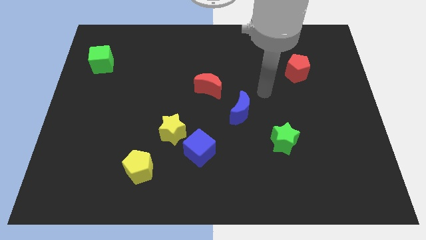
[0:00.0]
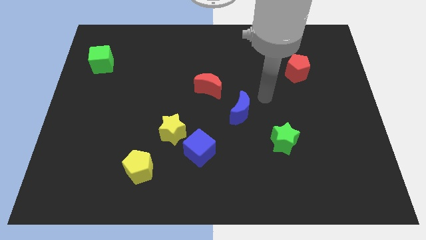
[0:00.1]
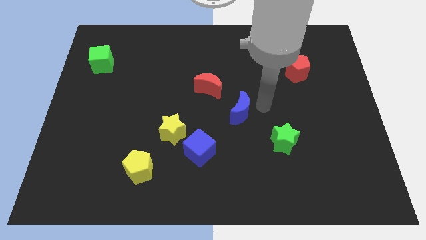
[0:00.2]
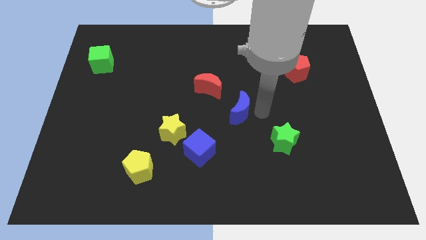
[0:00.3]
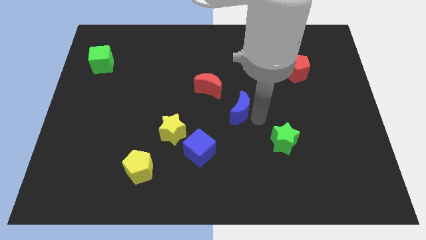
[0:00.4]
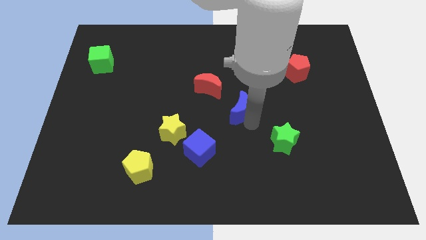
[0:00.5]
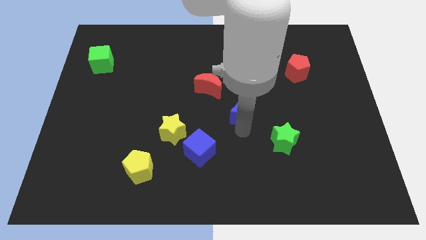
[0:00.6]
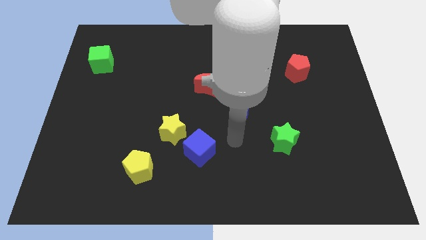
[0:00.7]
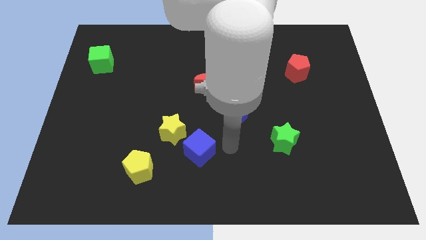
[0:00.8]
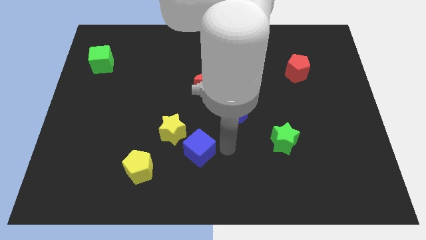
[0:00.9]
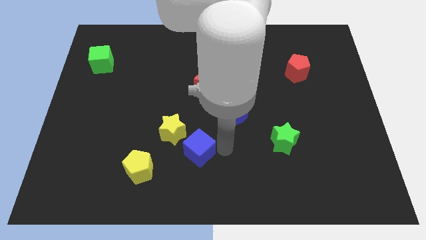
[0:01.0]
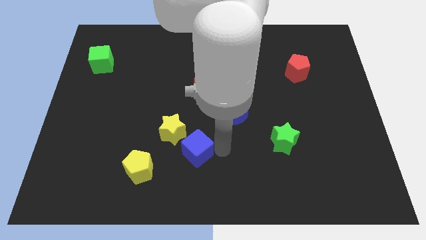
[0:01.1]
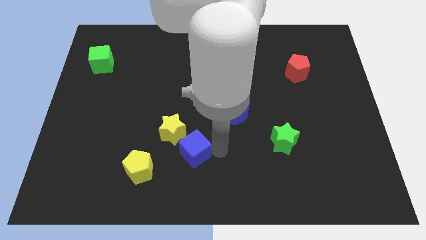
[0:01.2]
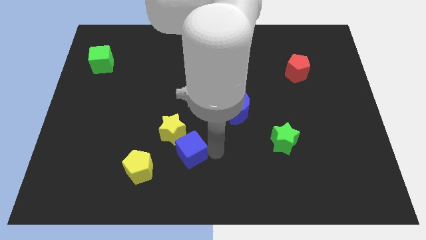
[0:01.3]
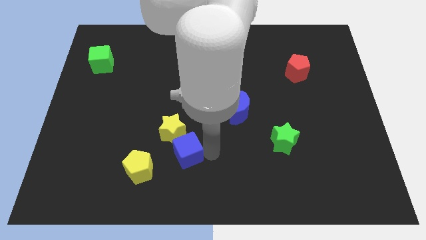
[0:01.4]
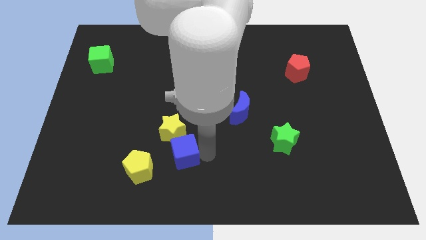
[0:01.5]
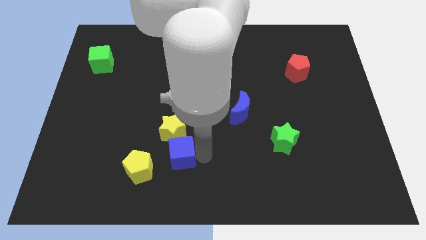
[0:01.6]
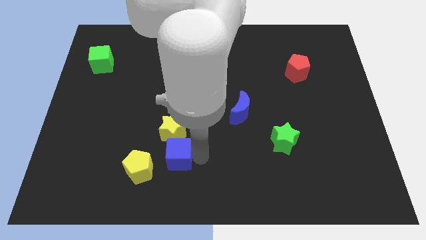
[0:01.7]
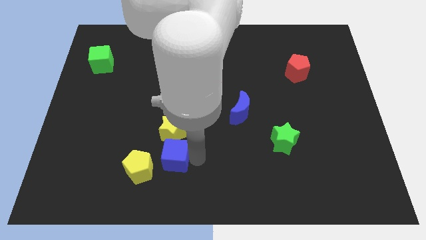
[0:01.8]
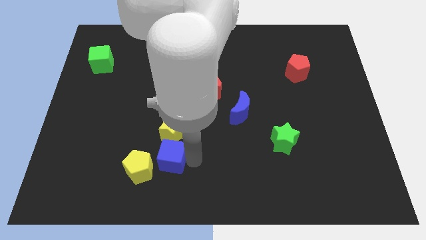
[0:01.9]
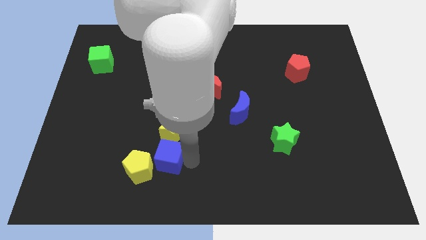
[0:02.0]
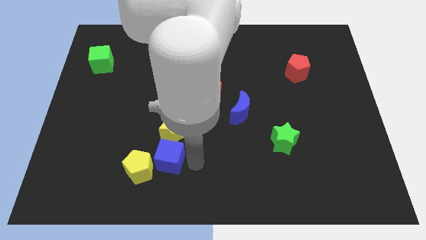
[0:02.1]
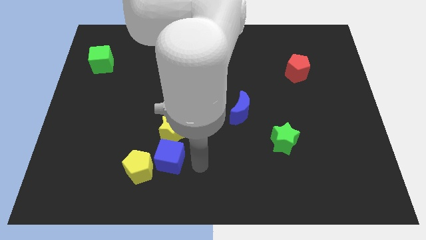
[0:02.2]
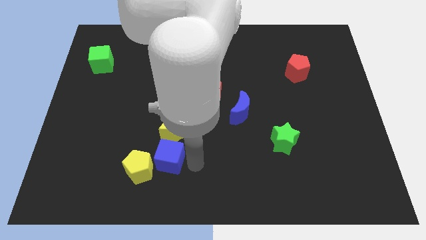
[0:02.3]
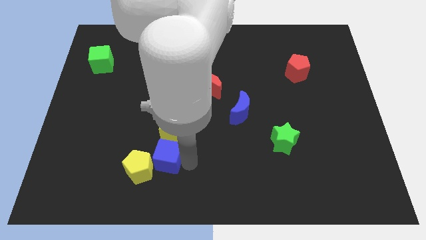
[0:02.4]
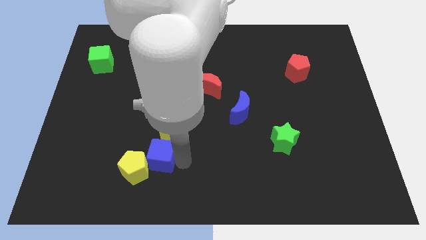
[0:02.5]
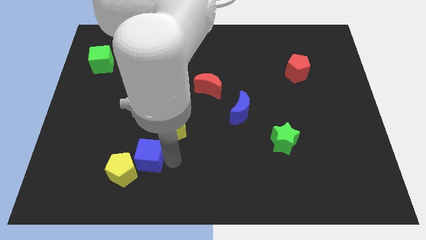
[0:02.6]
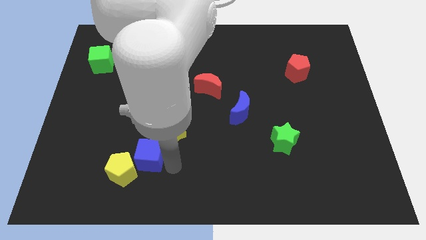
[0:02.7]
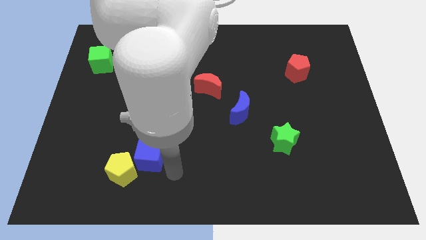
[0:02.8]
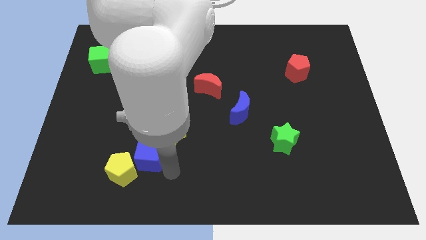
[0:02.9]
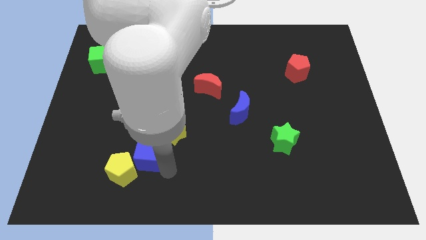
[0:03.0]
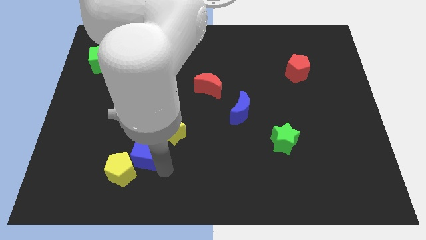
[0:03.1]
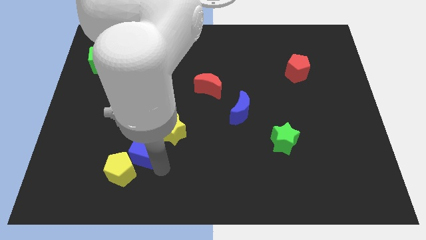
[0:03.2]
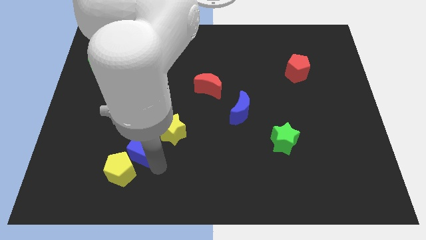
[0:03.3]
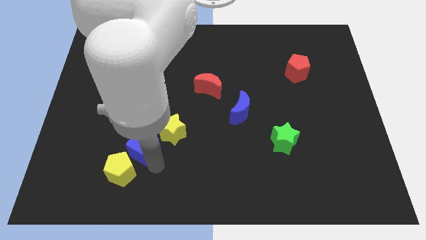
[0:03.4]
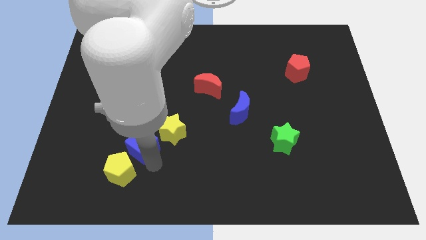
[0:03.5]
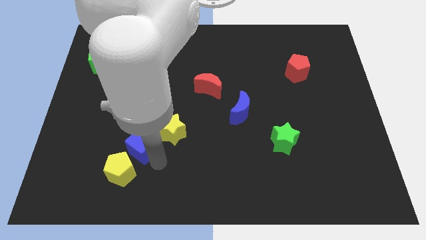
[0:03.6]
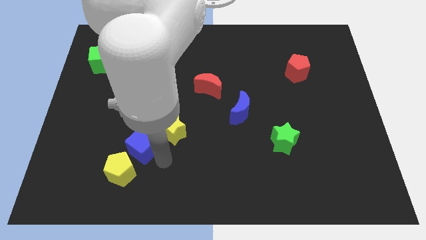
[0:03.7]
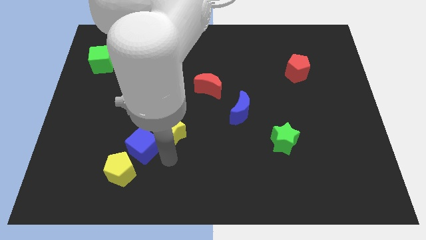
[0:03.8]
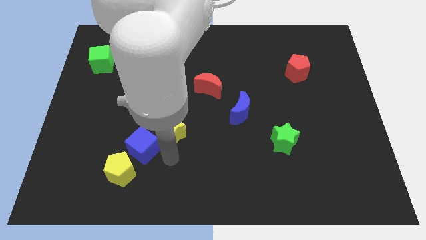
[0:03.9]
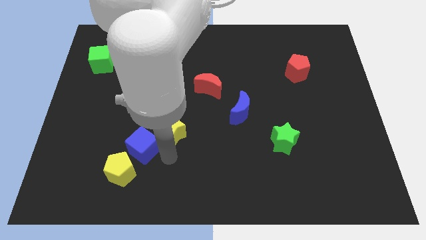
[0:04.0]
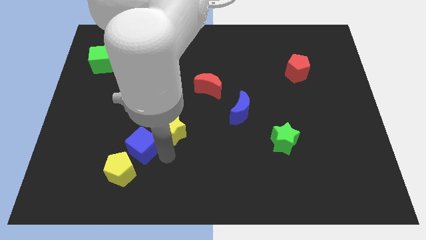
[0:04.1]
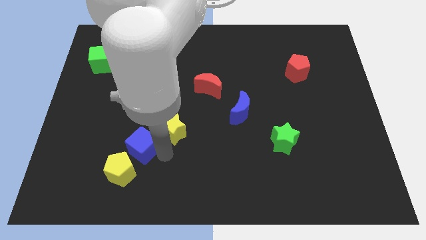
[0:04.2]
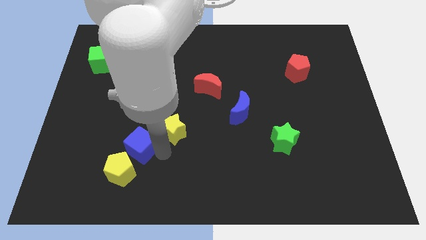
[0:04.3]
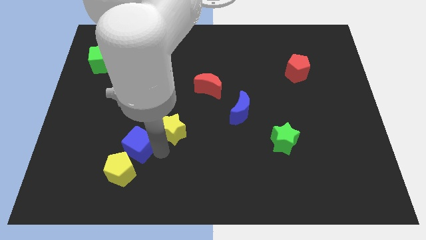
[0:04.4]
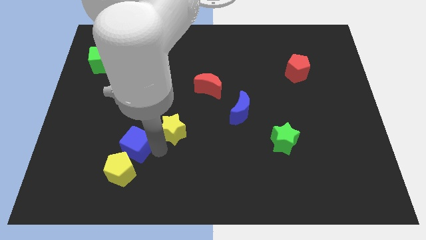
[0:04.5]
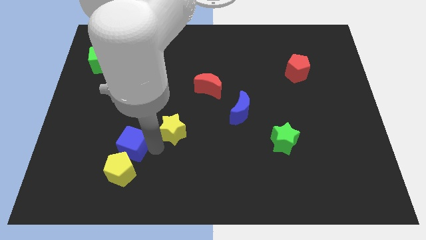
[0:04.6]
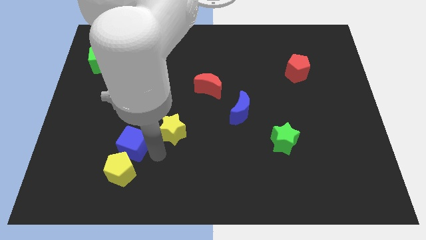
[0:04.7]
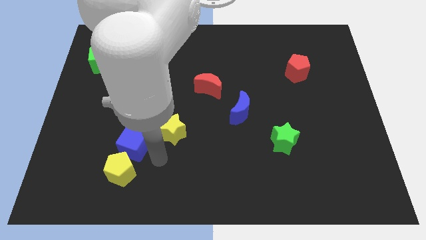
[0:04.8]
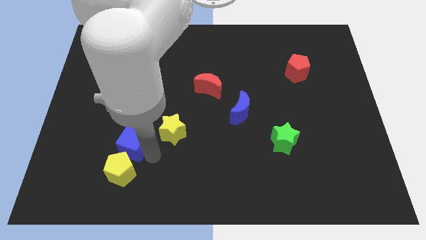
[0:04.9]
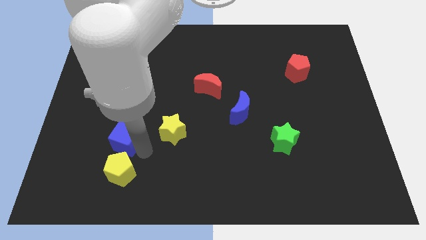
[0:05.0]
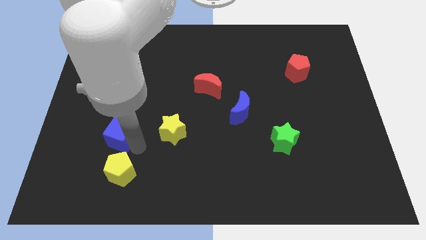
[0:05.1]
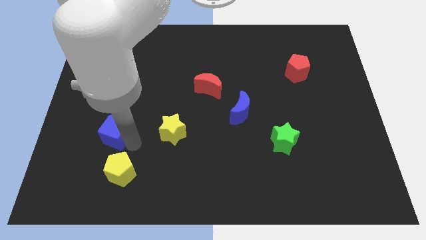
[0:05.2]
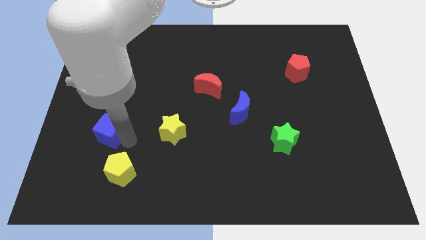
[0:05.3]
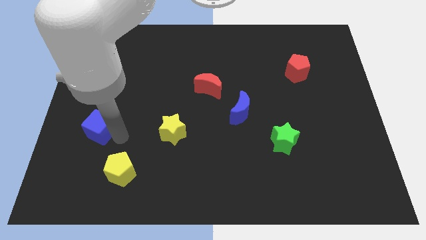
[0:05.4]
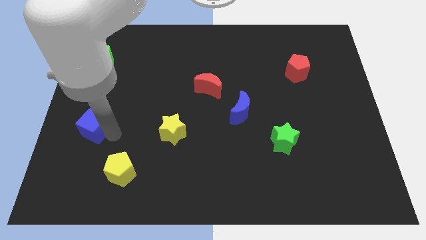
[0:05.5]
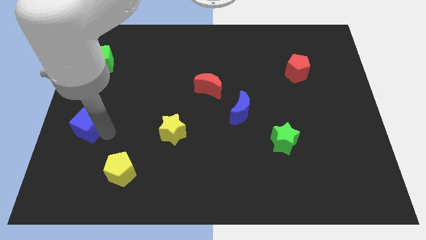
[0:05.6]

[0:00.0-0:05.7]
slide the blue cube to the center left
